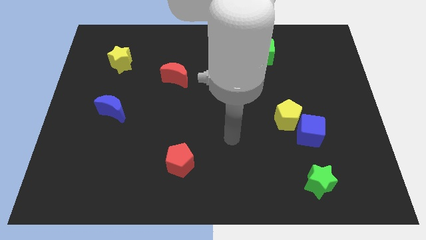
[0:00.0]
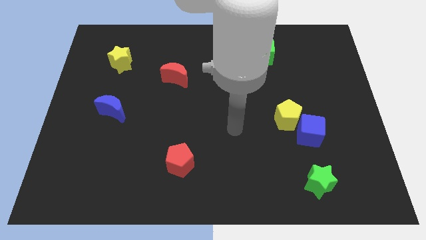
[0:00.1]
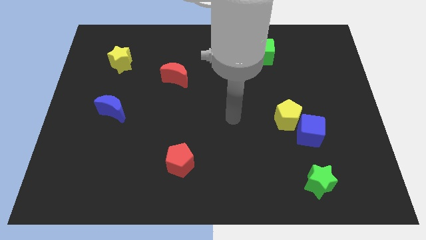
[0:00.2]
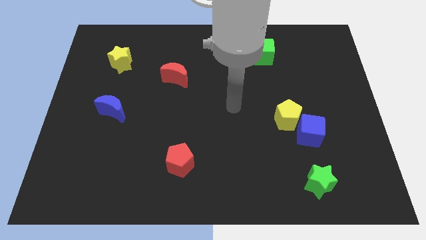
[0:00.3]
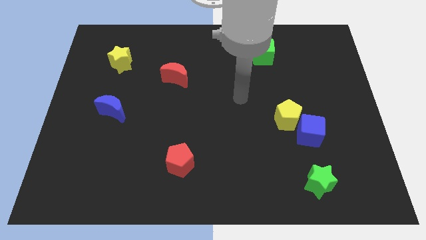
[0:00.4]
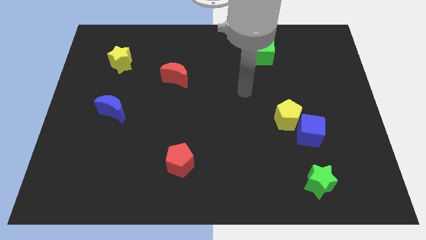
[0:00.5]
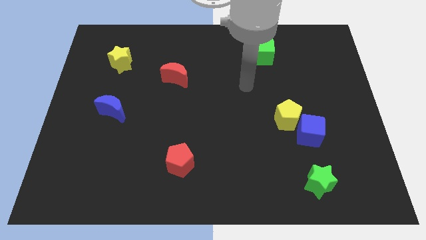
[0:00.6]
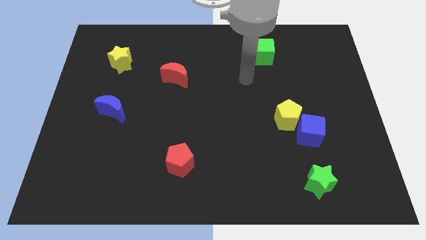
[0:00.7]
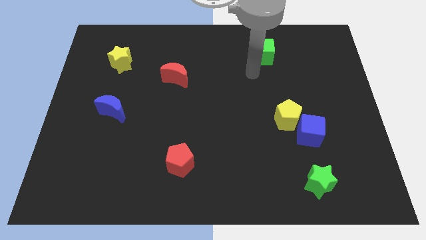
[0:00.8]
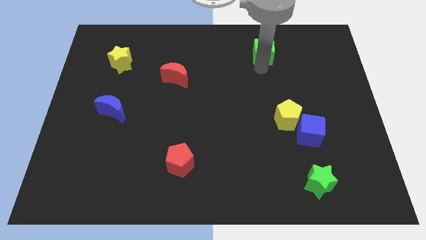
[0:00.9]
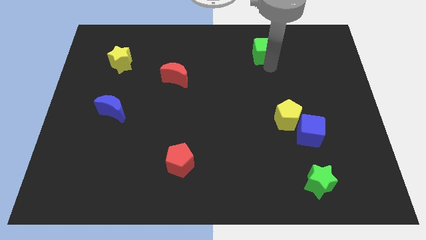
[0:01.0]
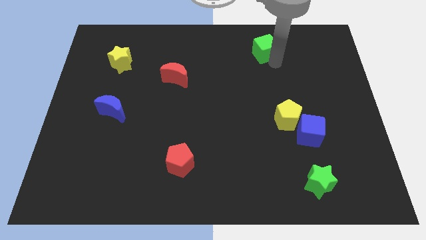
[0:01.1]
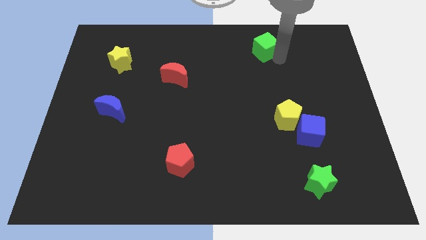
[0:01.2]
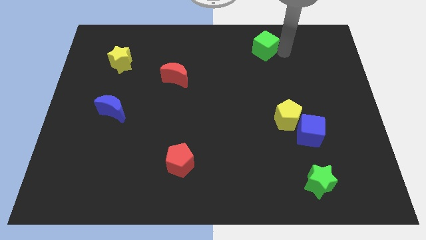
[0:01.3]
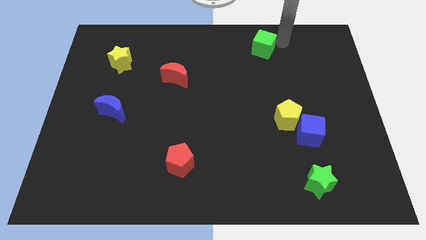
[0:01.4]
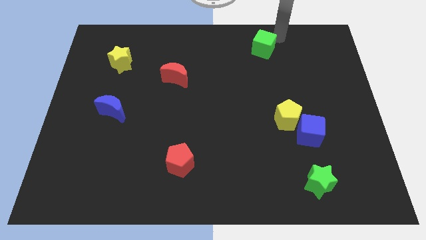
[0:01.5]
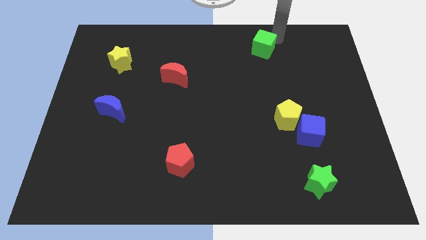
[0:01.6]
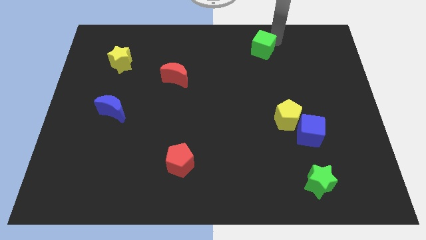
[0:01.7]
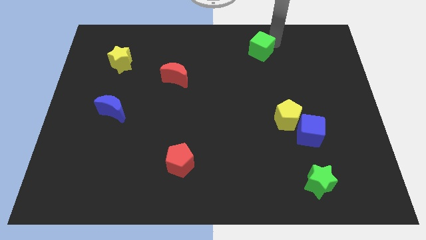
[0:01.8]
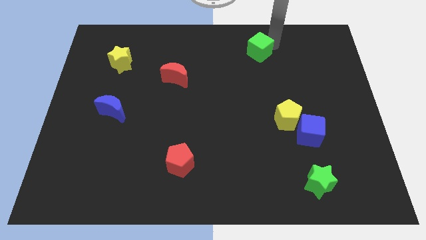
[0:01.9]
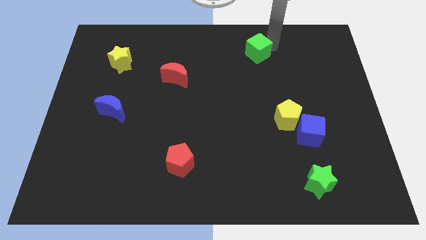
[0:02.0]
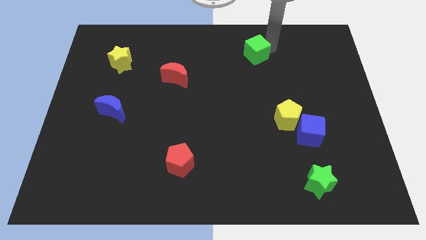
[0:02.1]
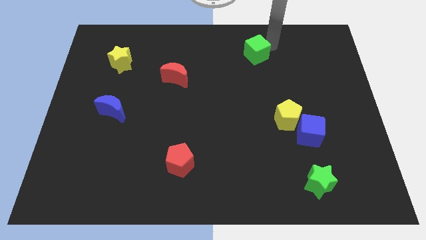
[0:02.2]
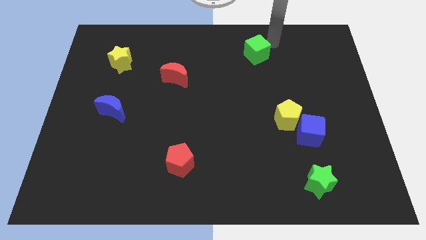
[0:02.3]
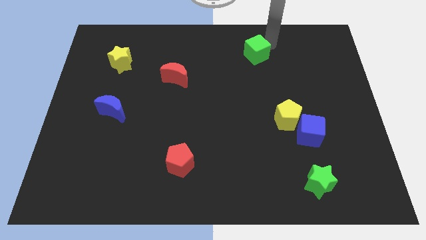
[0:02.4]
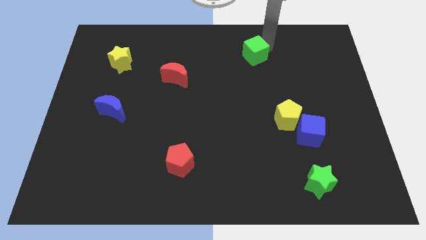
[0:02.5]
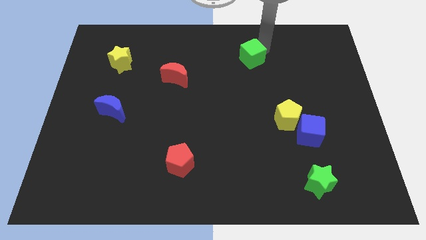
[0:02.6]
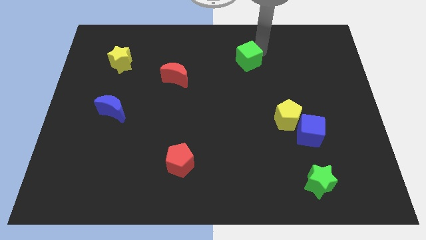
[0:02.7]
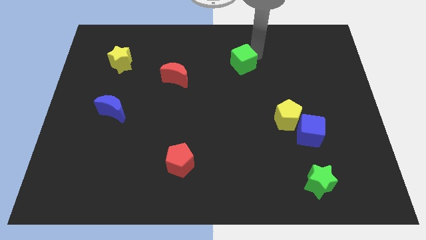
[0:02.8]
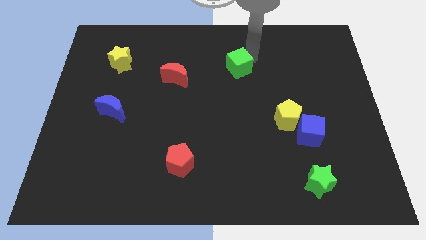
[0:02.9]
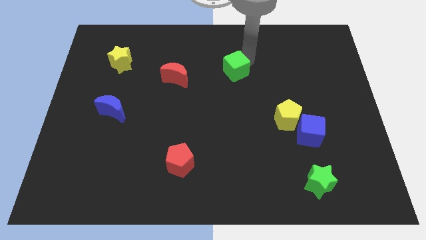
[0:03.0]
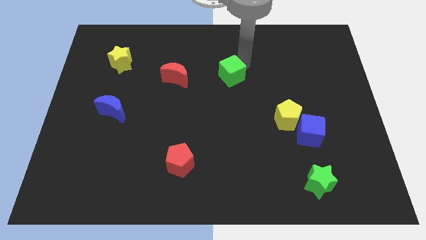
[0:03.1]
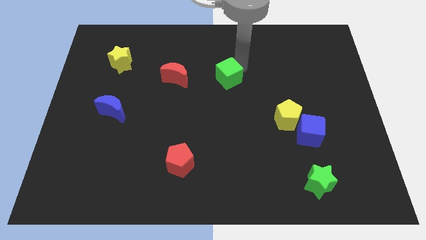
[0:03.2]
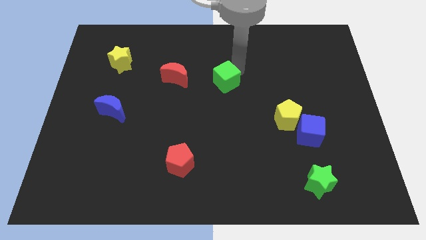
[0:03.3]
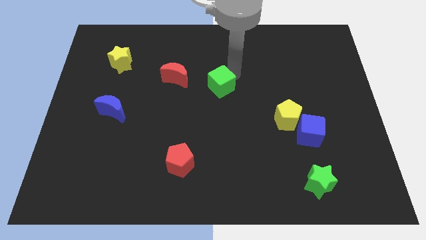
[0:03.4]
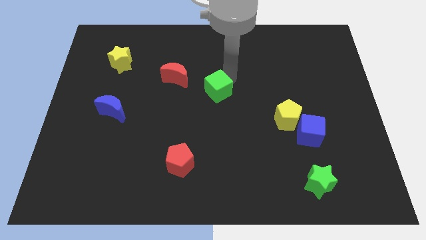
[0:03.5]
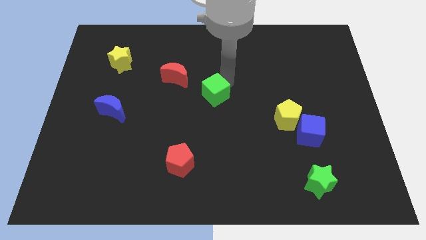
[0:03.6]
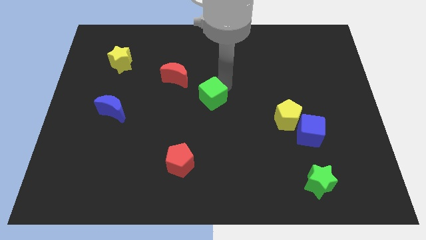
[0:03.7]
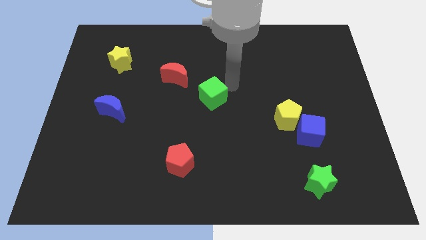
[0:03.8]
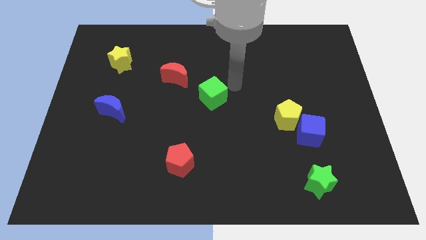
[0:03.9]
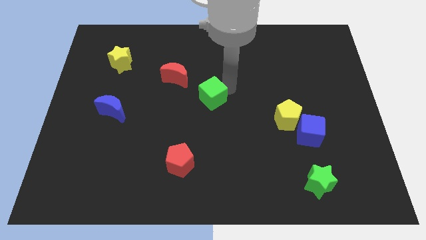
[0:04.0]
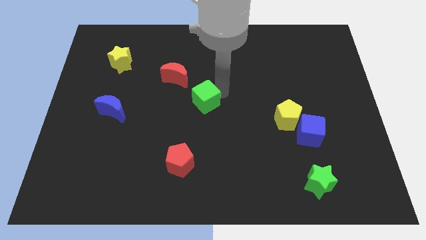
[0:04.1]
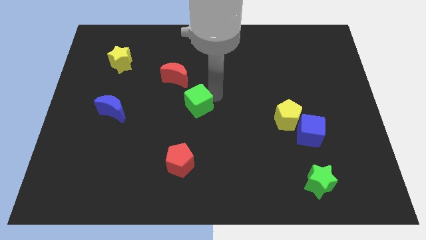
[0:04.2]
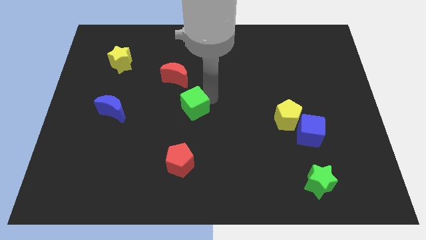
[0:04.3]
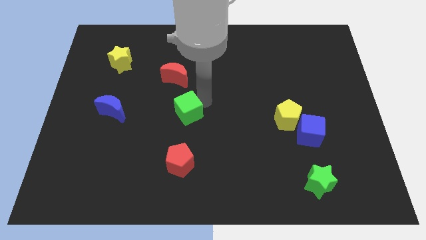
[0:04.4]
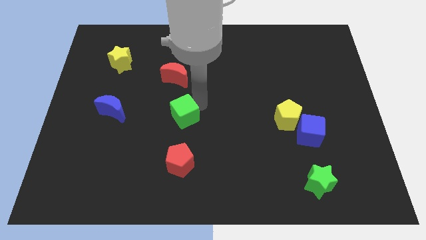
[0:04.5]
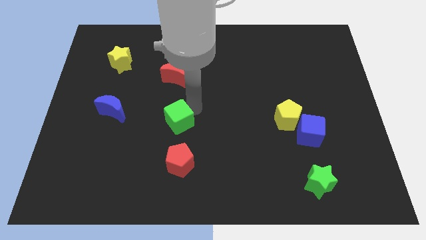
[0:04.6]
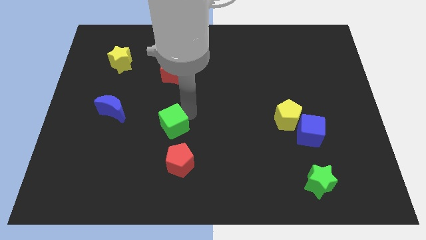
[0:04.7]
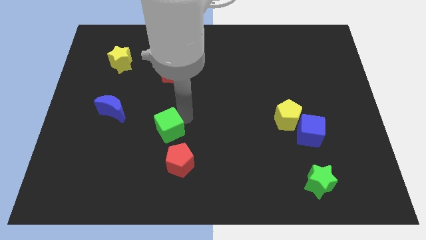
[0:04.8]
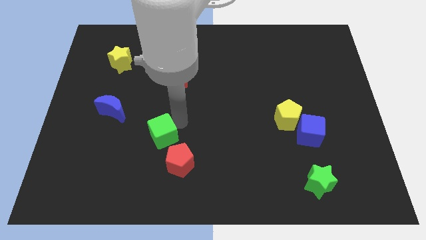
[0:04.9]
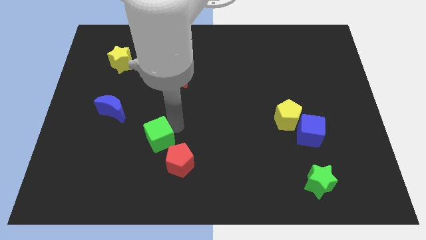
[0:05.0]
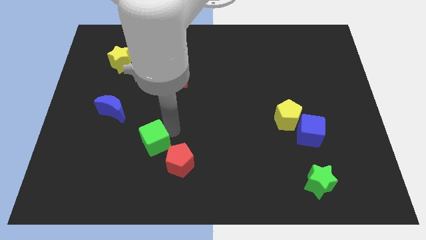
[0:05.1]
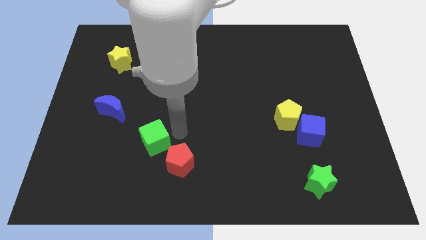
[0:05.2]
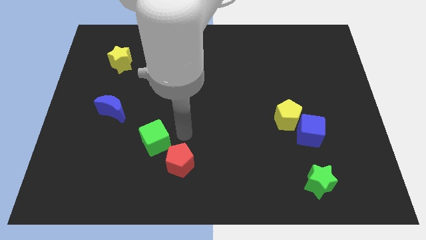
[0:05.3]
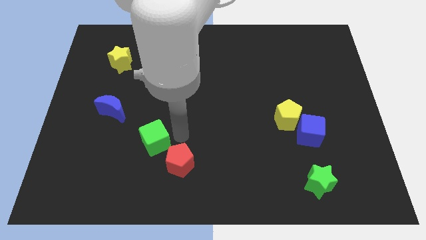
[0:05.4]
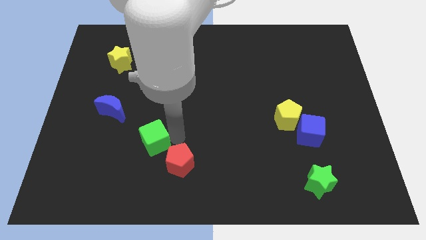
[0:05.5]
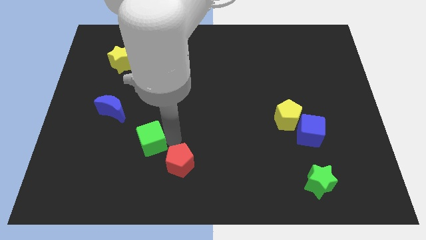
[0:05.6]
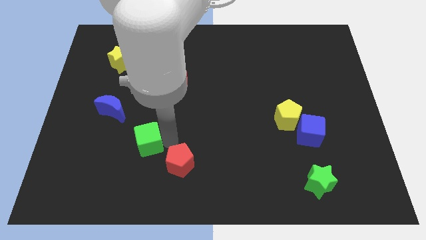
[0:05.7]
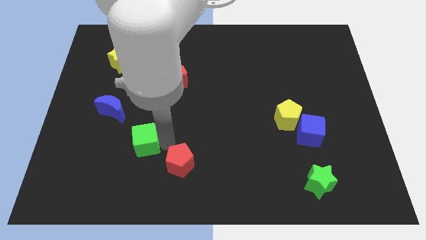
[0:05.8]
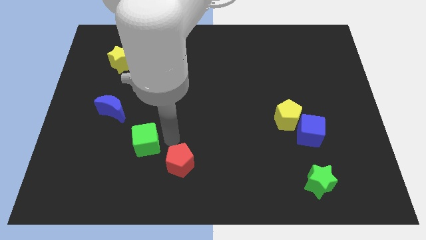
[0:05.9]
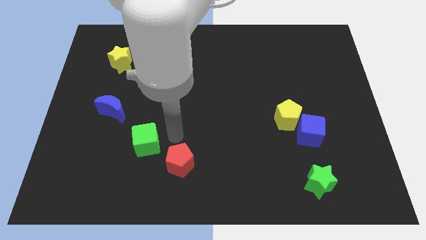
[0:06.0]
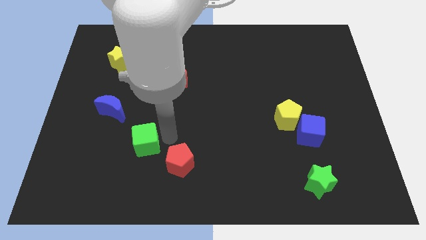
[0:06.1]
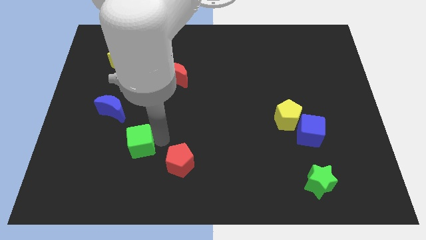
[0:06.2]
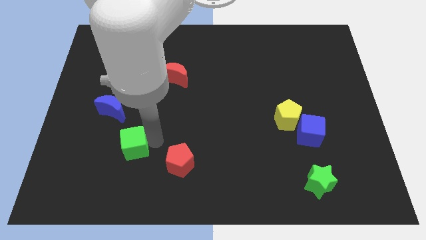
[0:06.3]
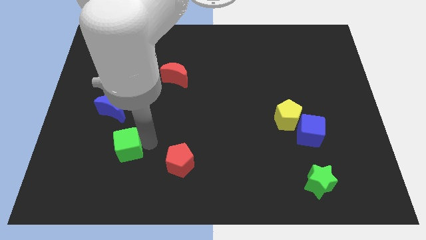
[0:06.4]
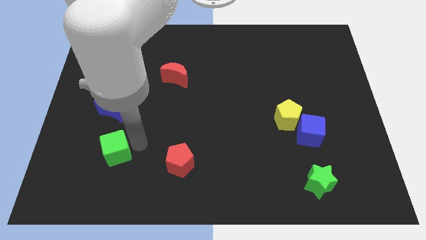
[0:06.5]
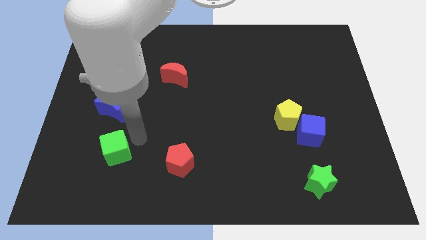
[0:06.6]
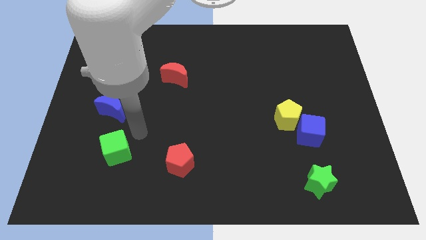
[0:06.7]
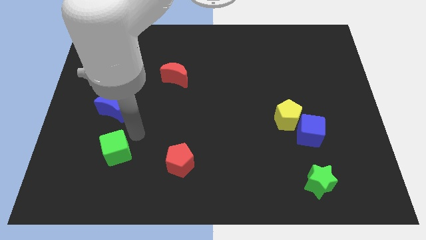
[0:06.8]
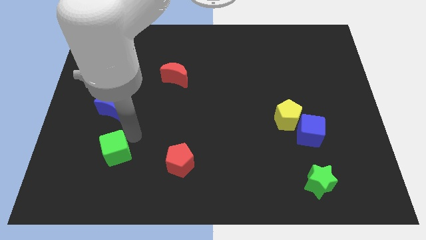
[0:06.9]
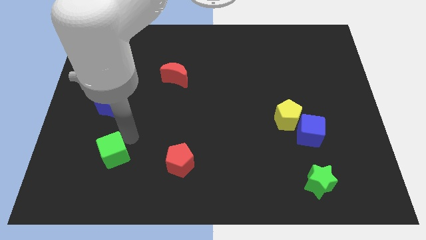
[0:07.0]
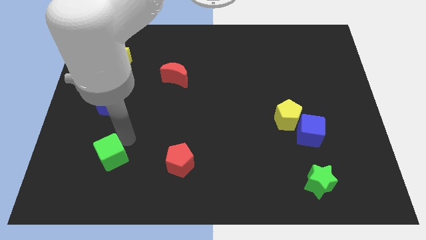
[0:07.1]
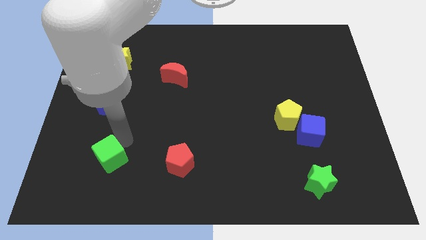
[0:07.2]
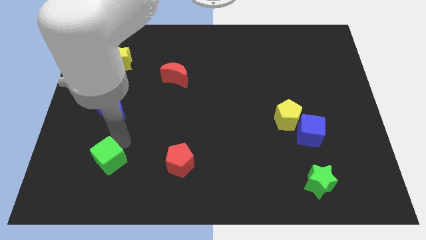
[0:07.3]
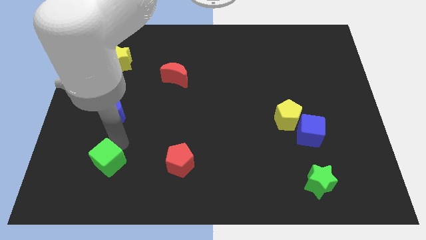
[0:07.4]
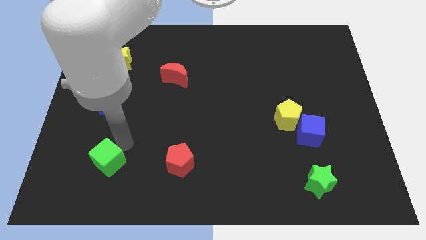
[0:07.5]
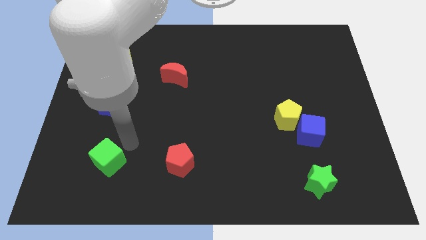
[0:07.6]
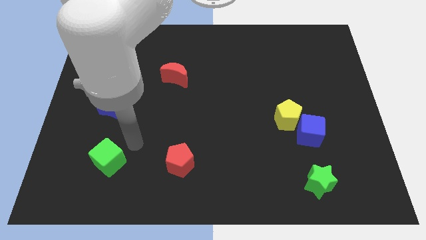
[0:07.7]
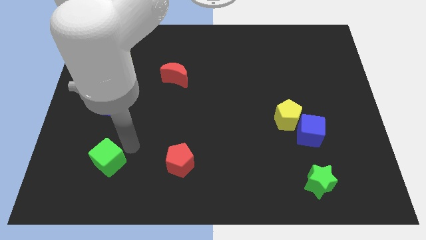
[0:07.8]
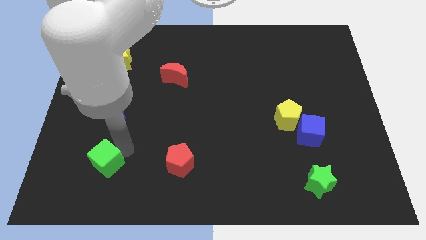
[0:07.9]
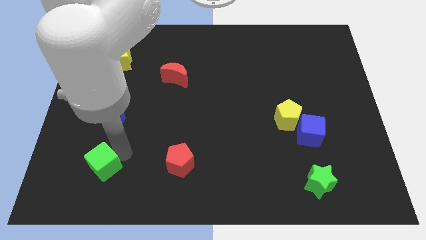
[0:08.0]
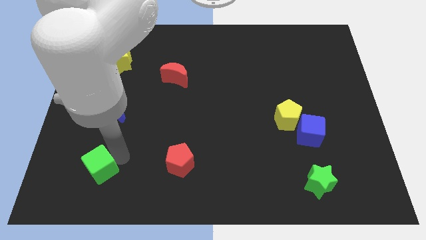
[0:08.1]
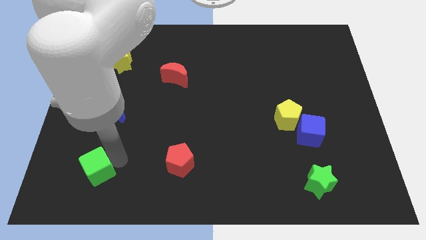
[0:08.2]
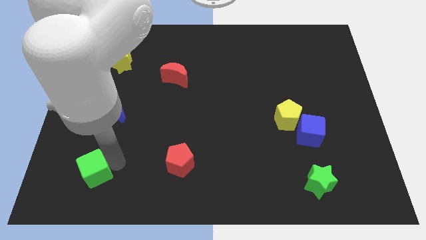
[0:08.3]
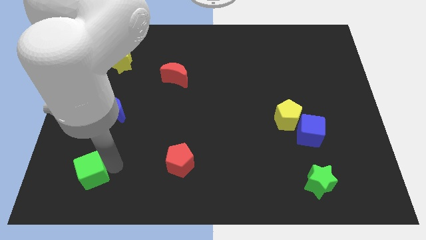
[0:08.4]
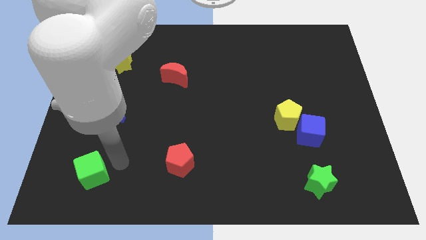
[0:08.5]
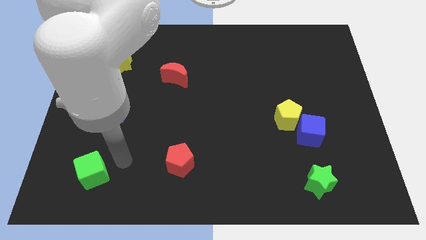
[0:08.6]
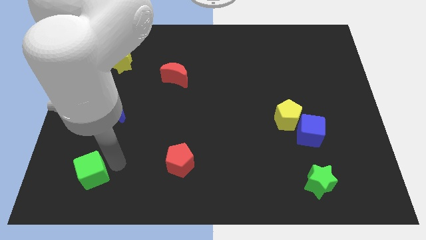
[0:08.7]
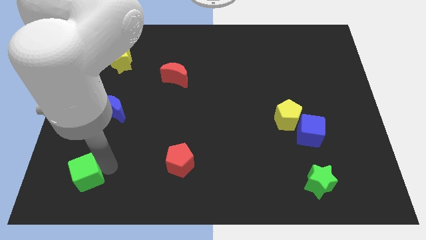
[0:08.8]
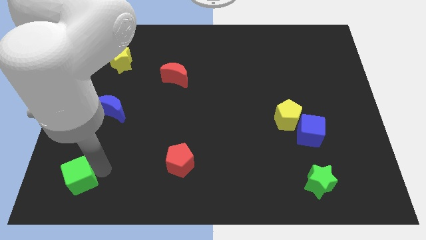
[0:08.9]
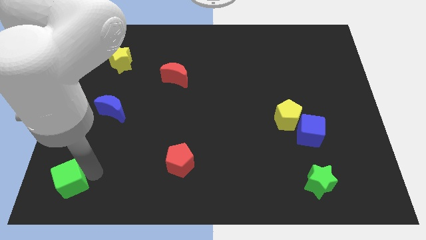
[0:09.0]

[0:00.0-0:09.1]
slide the green cube to the bottom left of the board
